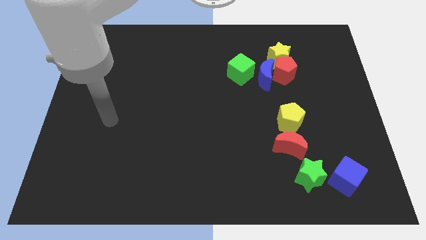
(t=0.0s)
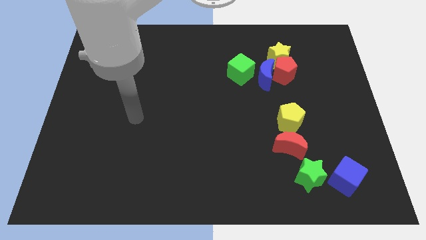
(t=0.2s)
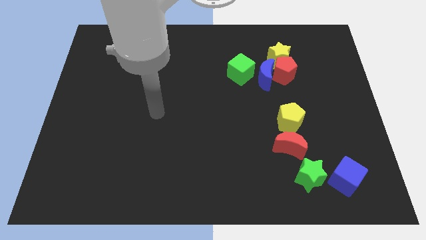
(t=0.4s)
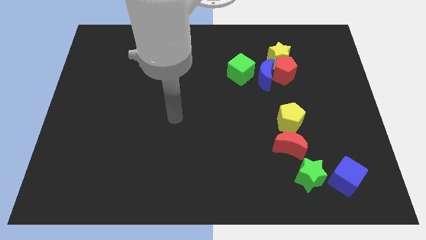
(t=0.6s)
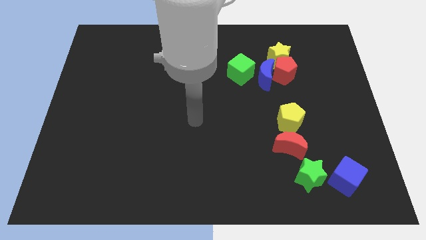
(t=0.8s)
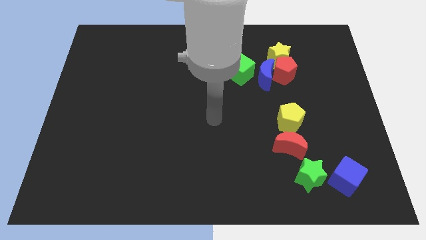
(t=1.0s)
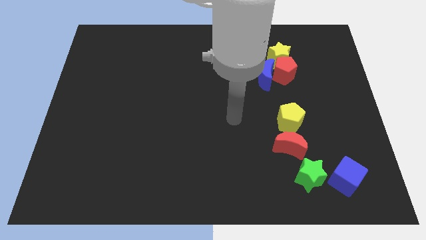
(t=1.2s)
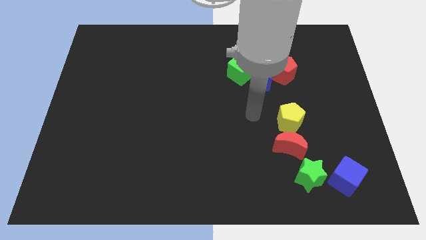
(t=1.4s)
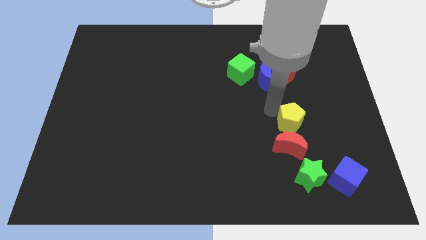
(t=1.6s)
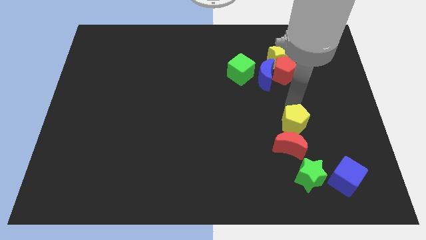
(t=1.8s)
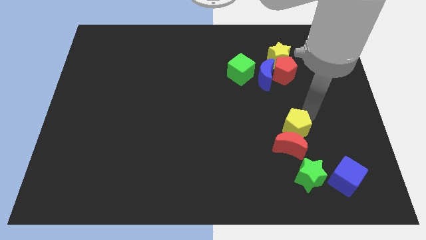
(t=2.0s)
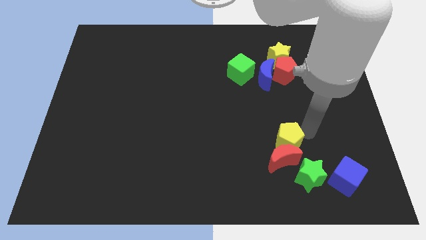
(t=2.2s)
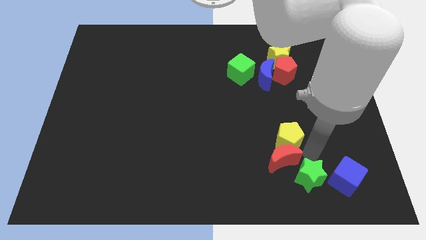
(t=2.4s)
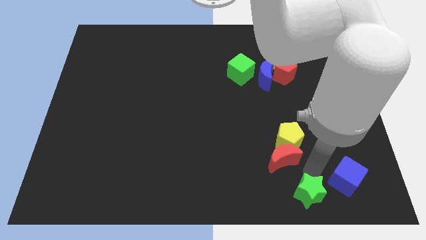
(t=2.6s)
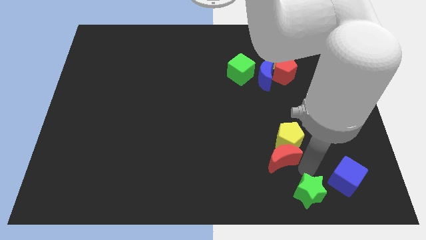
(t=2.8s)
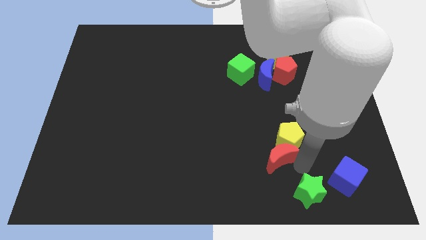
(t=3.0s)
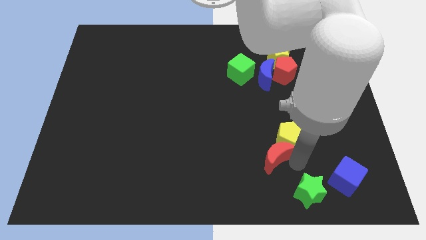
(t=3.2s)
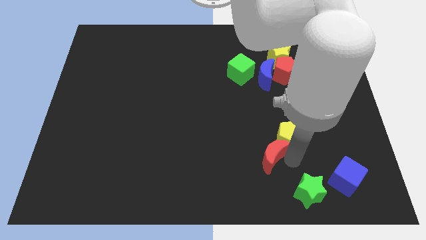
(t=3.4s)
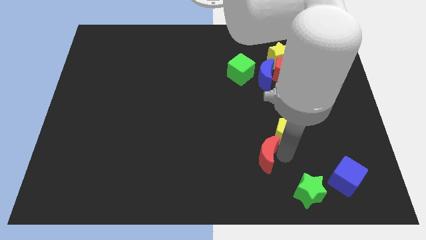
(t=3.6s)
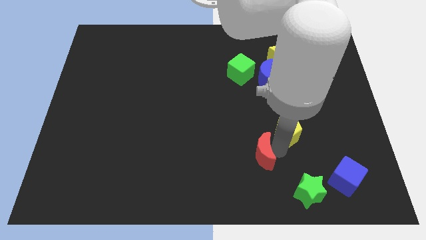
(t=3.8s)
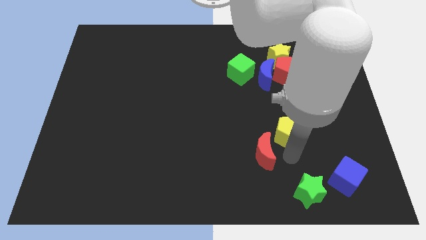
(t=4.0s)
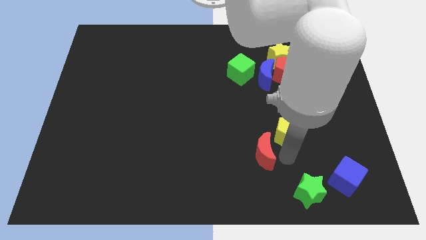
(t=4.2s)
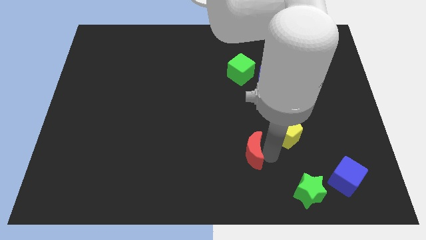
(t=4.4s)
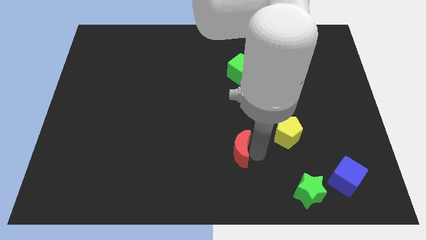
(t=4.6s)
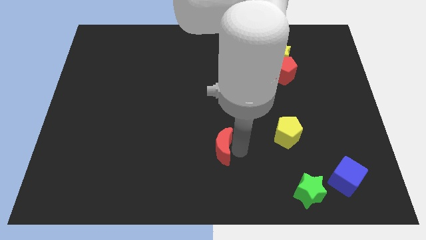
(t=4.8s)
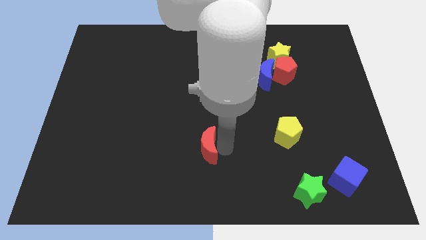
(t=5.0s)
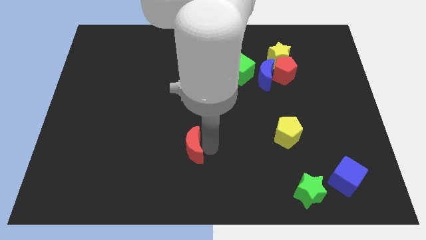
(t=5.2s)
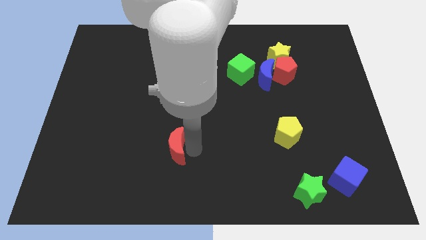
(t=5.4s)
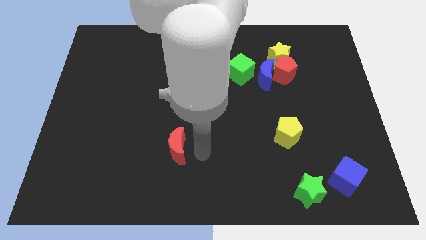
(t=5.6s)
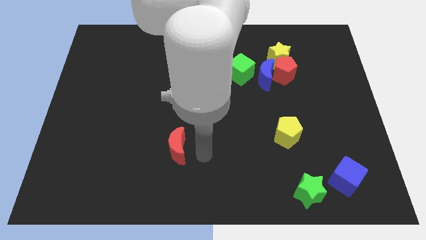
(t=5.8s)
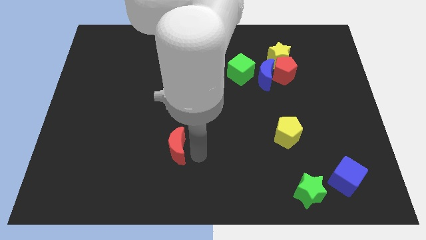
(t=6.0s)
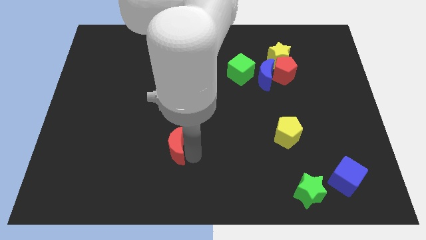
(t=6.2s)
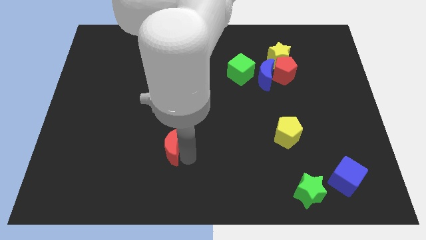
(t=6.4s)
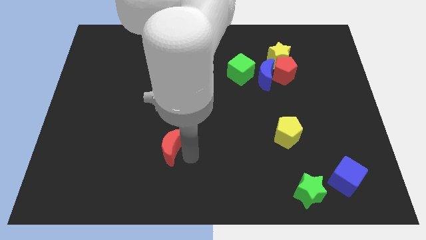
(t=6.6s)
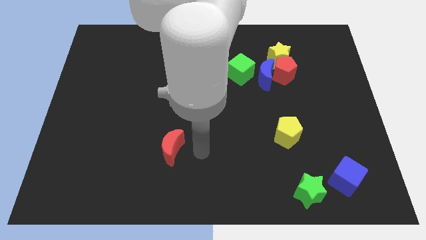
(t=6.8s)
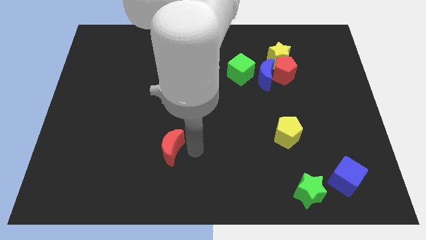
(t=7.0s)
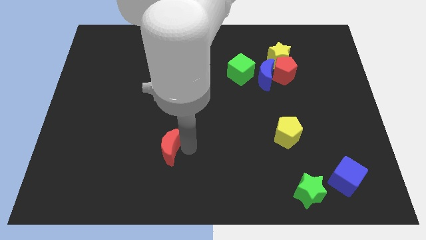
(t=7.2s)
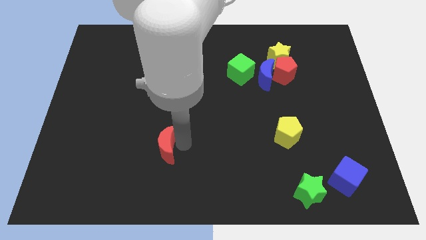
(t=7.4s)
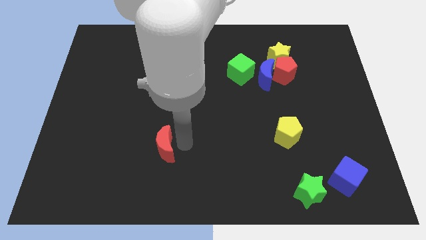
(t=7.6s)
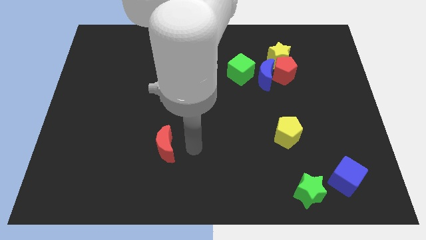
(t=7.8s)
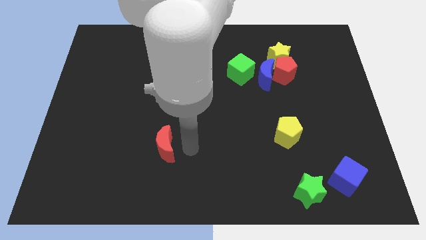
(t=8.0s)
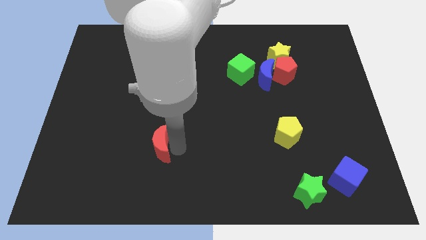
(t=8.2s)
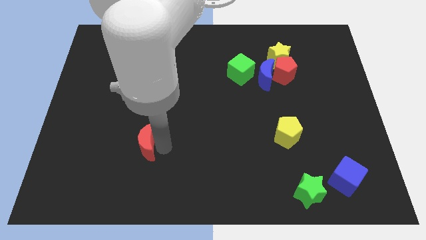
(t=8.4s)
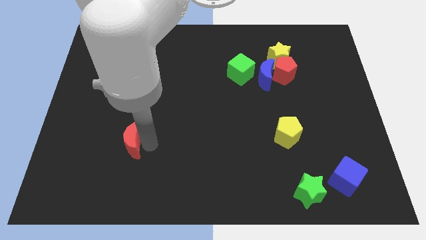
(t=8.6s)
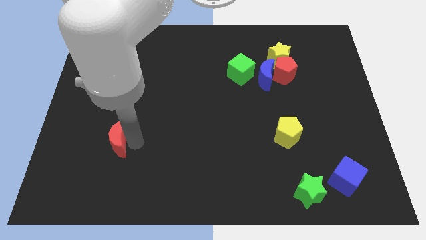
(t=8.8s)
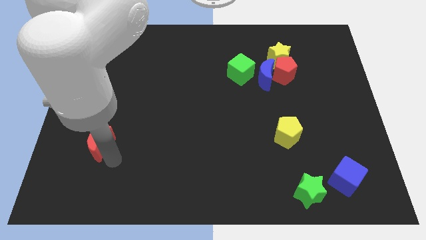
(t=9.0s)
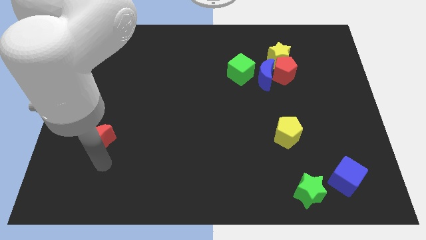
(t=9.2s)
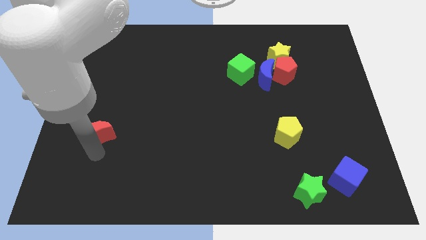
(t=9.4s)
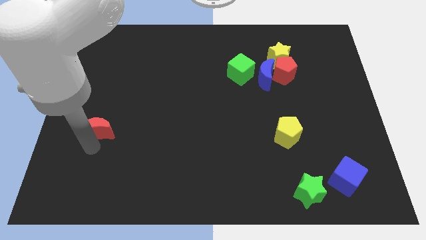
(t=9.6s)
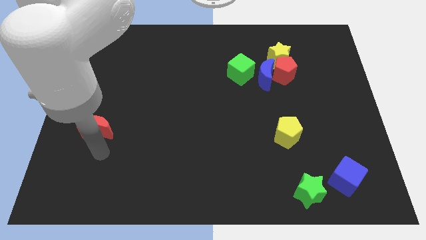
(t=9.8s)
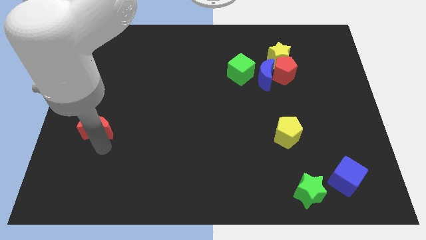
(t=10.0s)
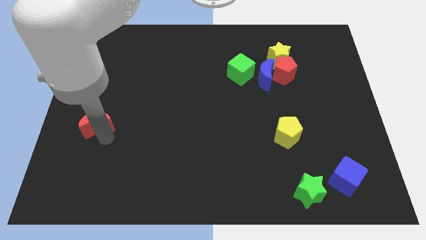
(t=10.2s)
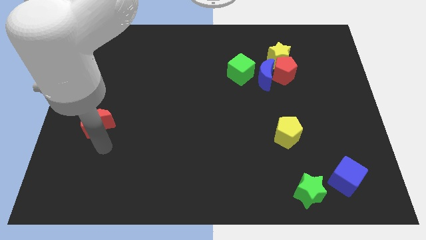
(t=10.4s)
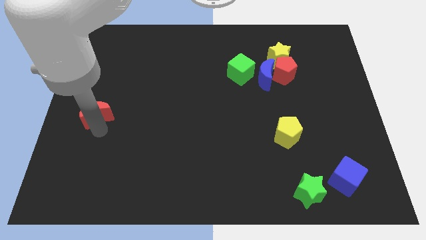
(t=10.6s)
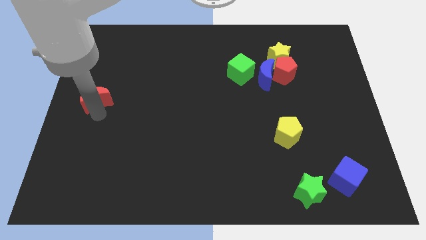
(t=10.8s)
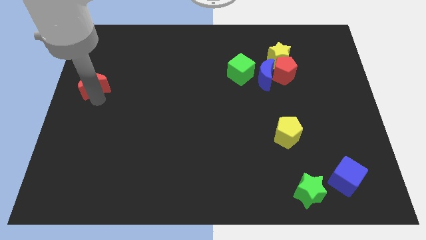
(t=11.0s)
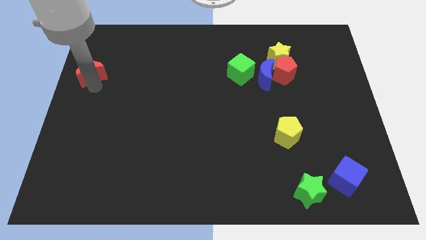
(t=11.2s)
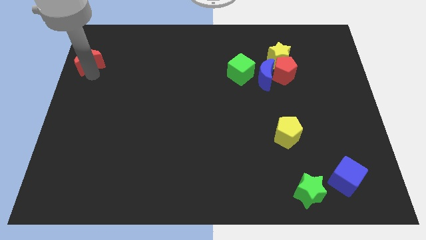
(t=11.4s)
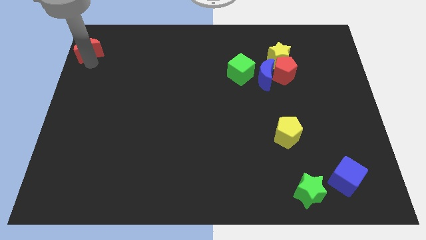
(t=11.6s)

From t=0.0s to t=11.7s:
slide the red moon to the top left of the board

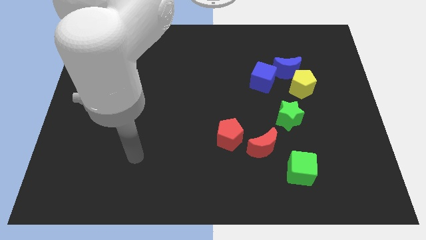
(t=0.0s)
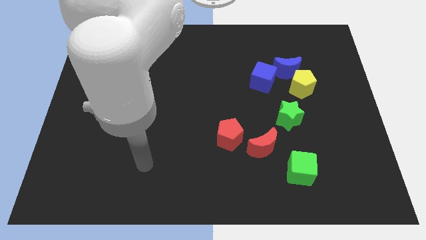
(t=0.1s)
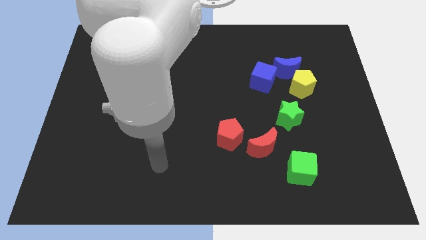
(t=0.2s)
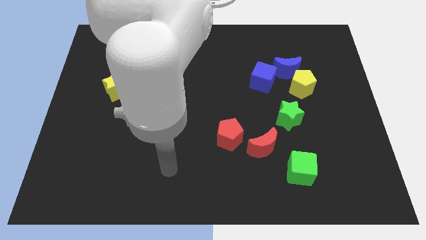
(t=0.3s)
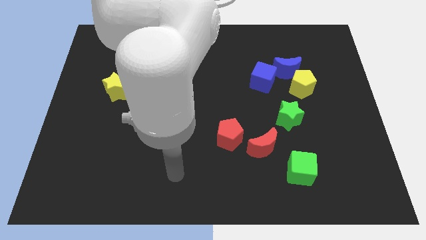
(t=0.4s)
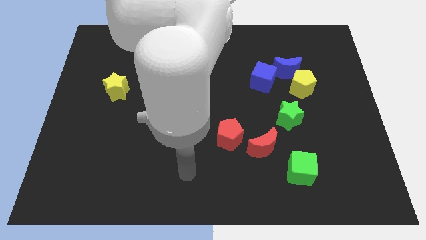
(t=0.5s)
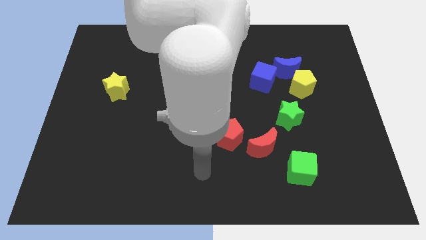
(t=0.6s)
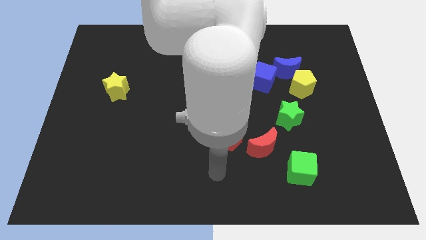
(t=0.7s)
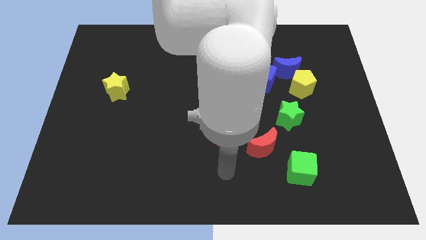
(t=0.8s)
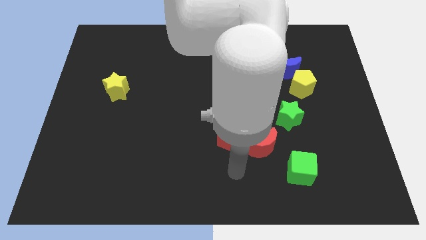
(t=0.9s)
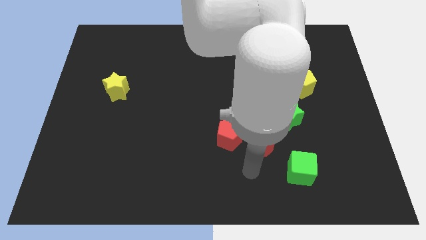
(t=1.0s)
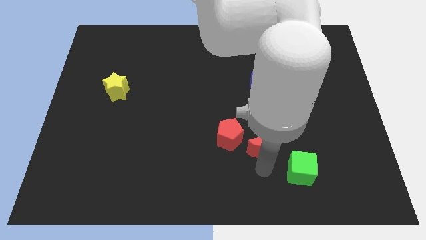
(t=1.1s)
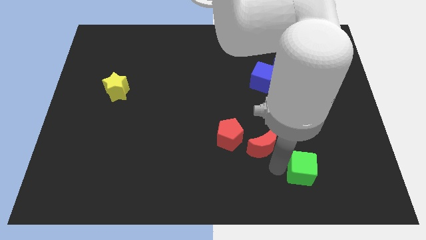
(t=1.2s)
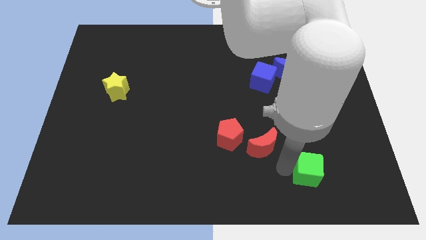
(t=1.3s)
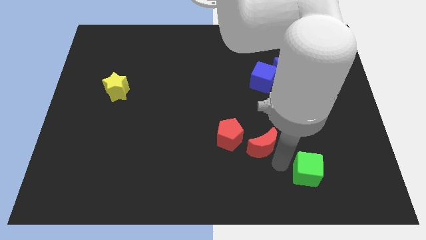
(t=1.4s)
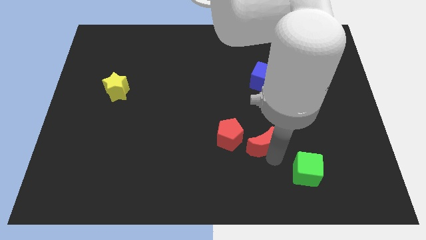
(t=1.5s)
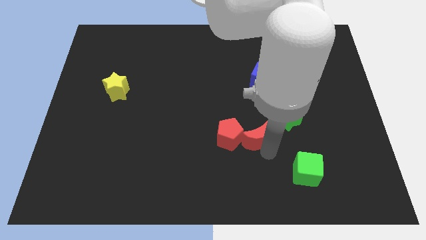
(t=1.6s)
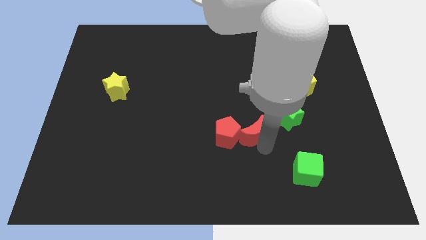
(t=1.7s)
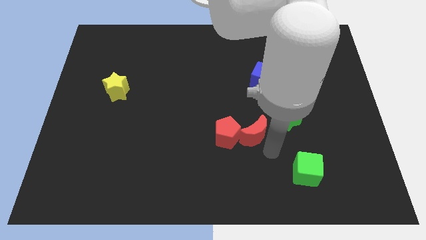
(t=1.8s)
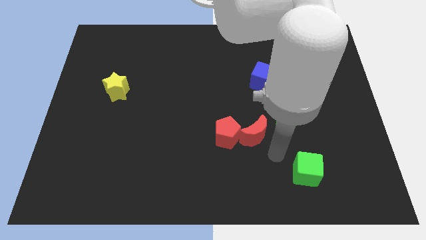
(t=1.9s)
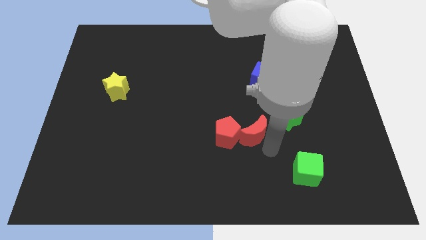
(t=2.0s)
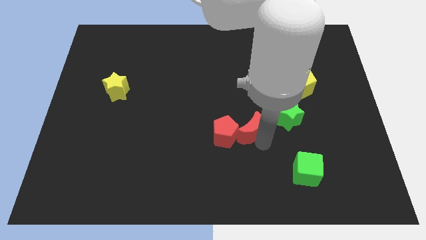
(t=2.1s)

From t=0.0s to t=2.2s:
slide the red moon to the center of the board

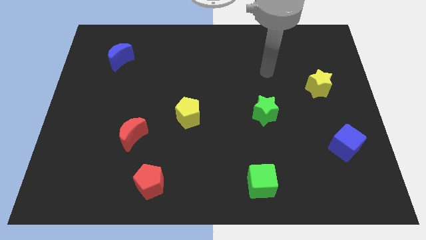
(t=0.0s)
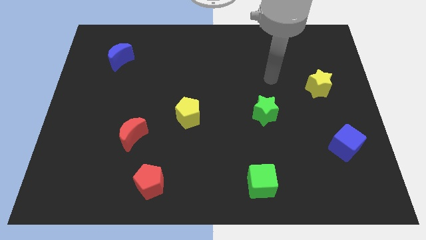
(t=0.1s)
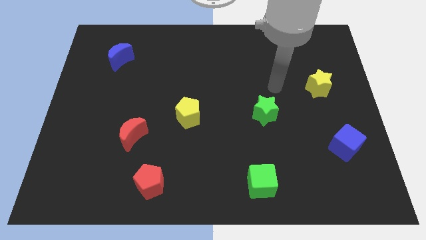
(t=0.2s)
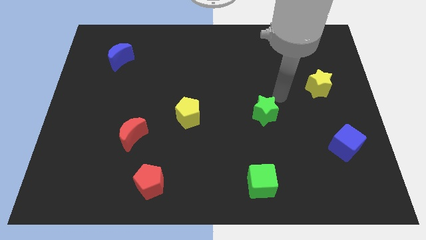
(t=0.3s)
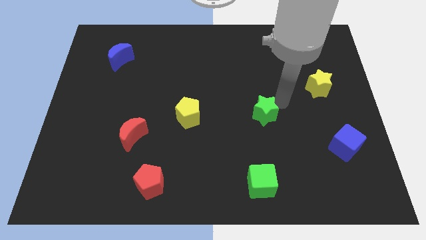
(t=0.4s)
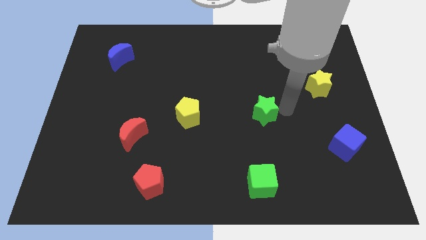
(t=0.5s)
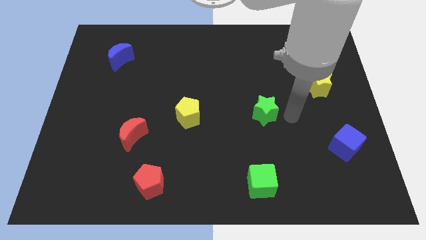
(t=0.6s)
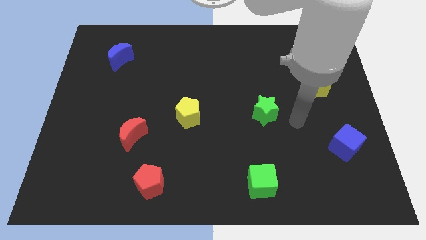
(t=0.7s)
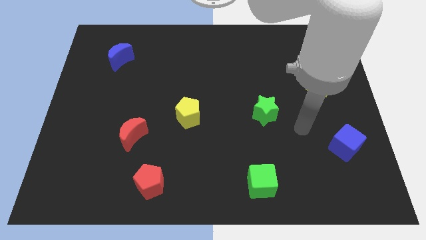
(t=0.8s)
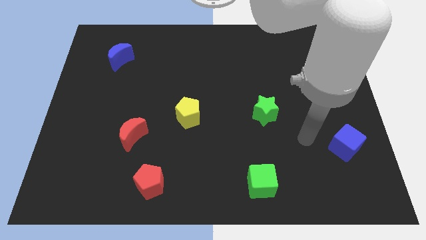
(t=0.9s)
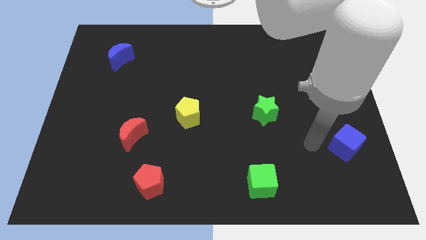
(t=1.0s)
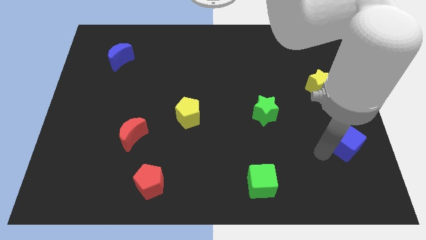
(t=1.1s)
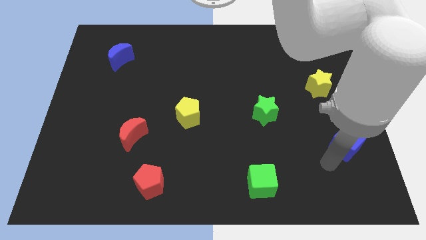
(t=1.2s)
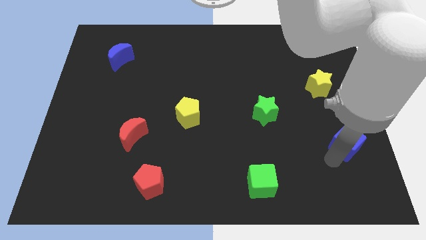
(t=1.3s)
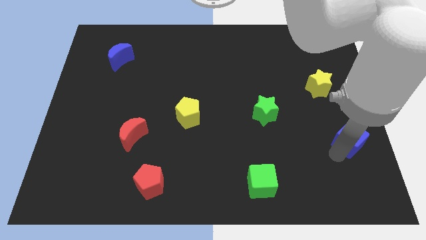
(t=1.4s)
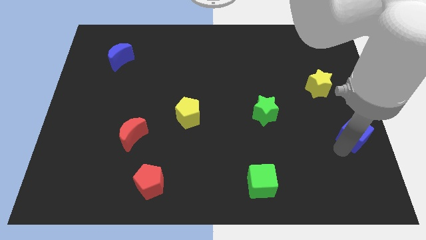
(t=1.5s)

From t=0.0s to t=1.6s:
slide the blue cube to the center right
